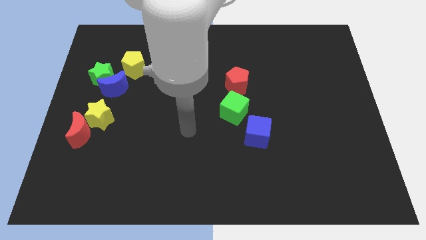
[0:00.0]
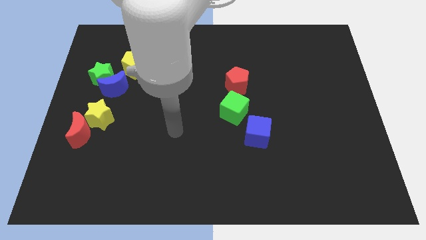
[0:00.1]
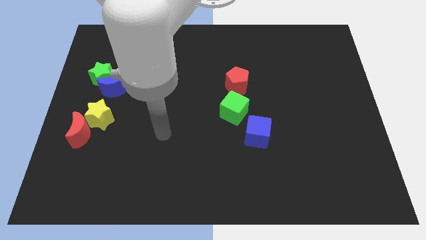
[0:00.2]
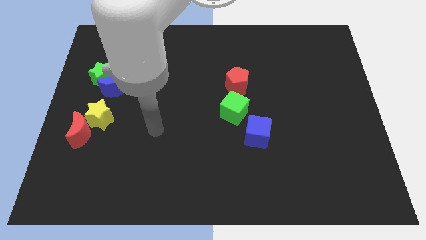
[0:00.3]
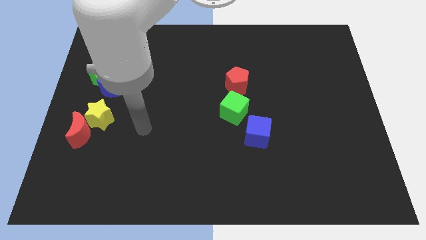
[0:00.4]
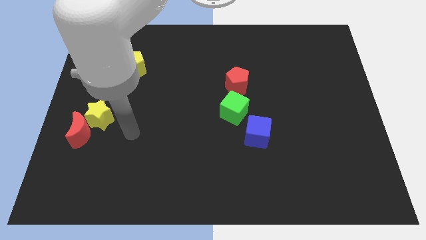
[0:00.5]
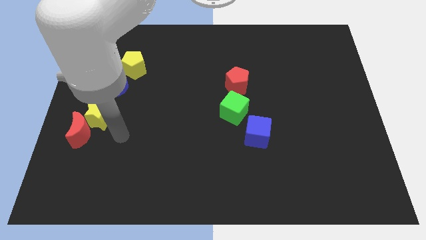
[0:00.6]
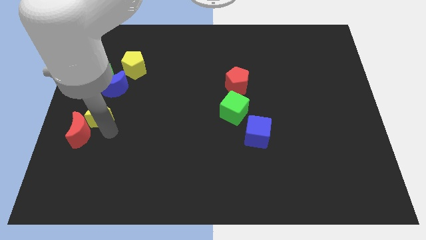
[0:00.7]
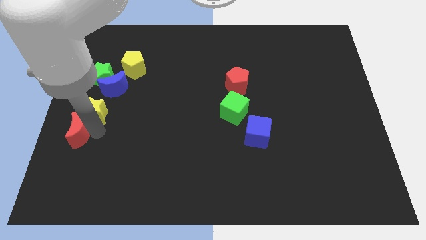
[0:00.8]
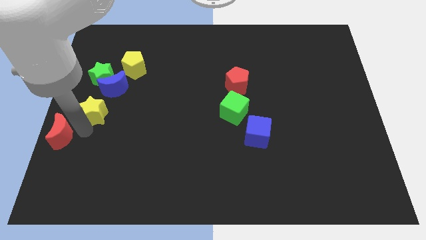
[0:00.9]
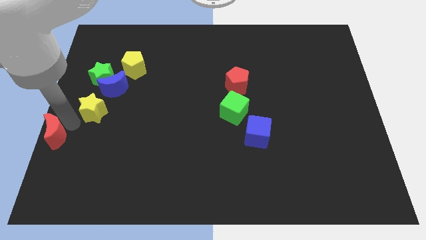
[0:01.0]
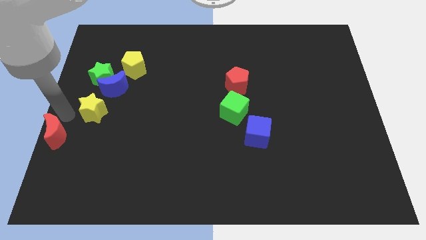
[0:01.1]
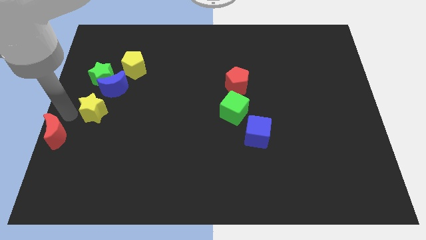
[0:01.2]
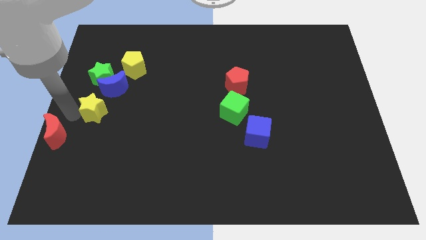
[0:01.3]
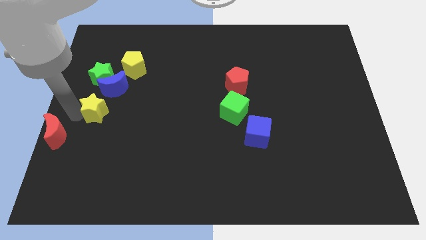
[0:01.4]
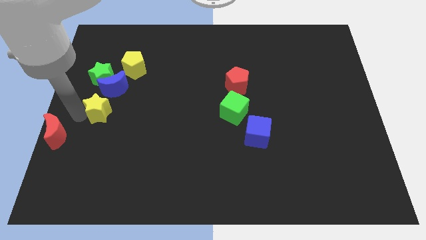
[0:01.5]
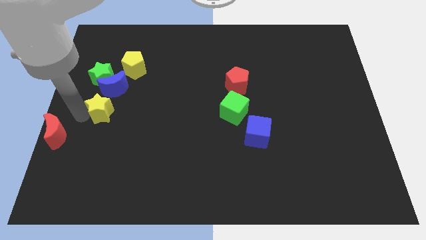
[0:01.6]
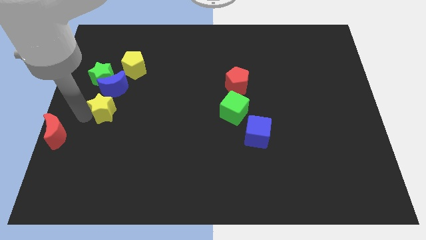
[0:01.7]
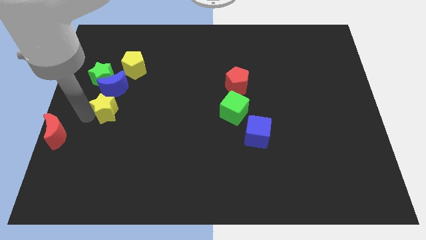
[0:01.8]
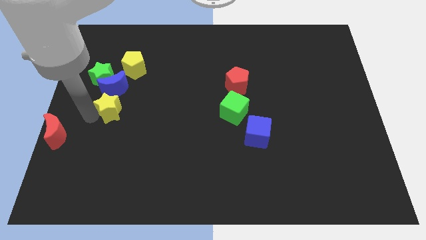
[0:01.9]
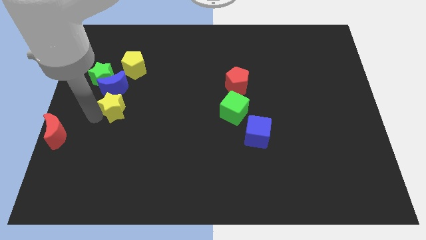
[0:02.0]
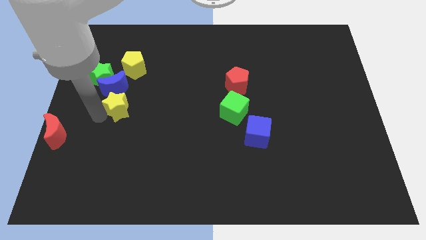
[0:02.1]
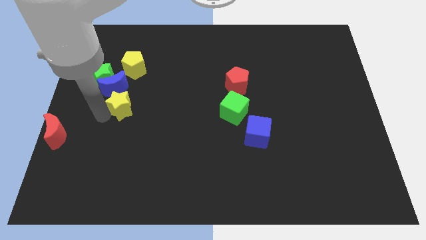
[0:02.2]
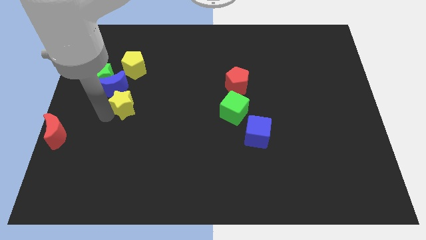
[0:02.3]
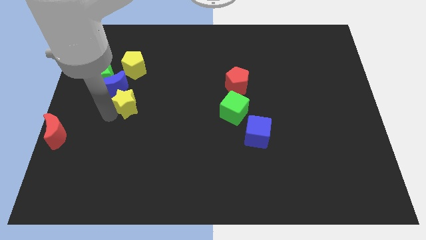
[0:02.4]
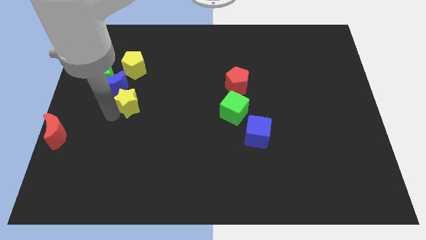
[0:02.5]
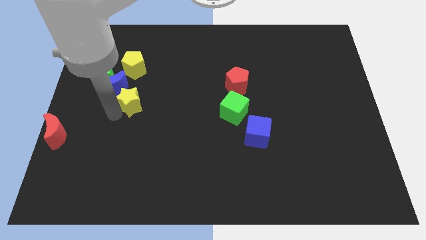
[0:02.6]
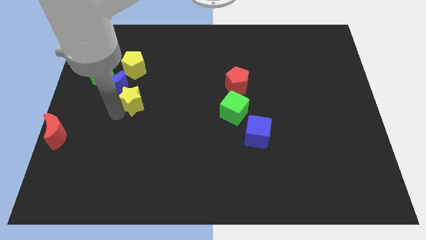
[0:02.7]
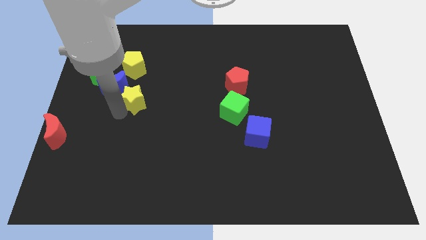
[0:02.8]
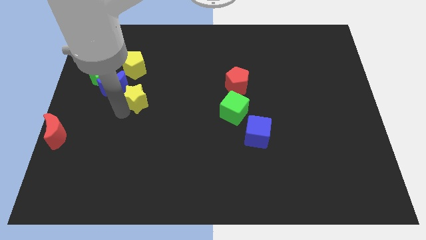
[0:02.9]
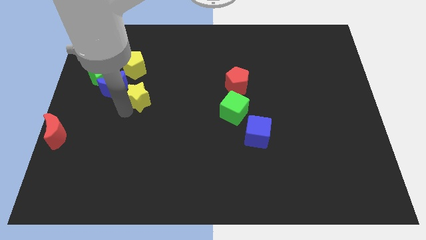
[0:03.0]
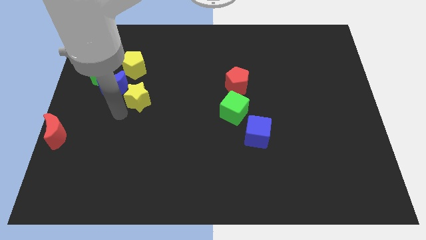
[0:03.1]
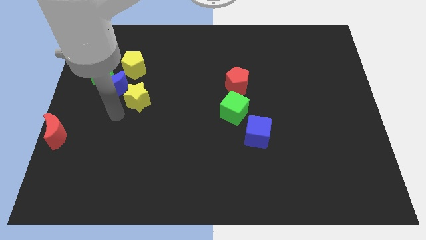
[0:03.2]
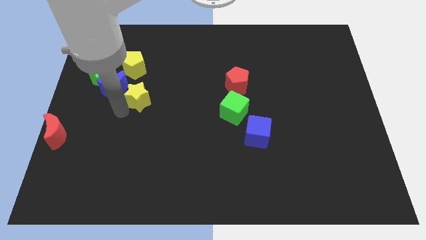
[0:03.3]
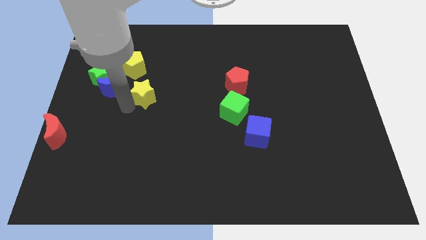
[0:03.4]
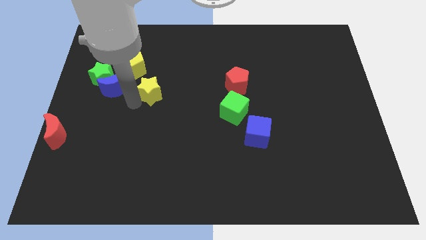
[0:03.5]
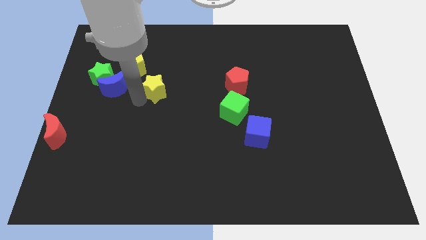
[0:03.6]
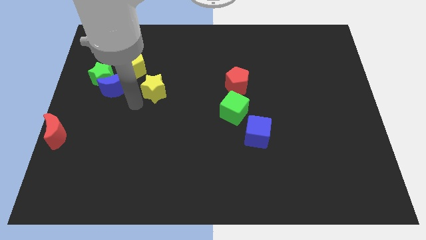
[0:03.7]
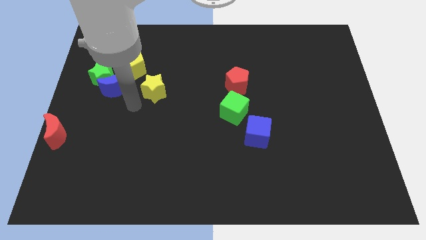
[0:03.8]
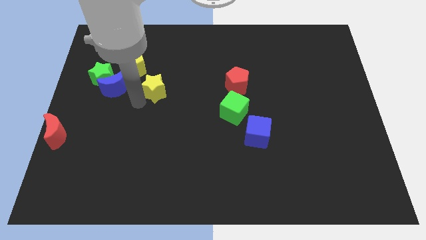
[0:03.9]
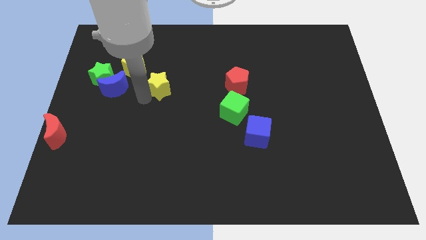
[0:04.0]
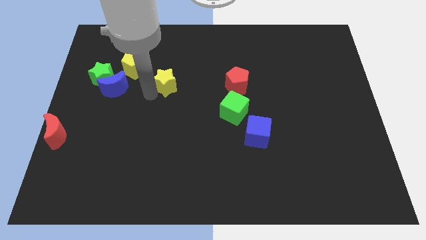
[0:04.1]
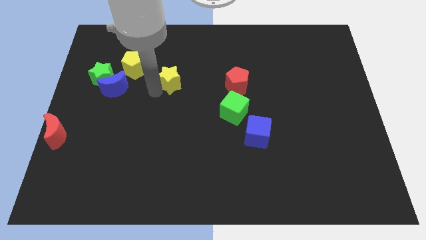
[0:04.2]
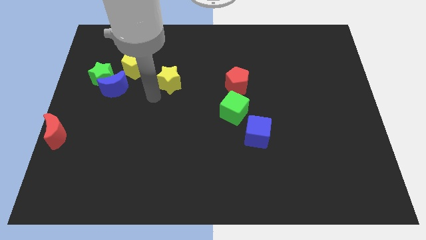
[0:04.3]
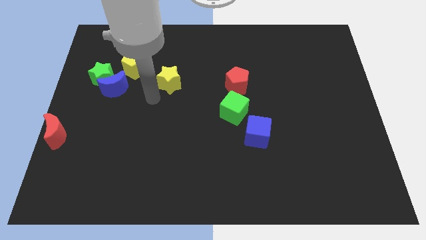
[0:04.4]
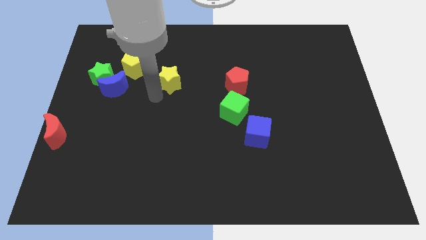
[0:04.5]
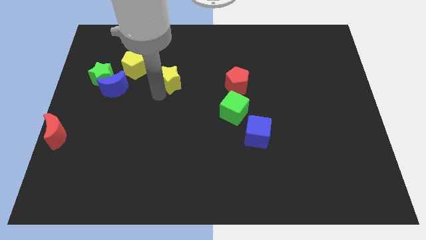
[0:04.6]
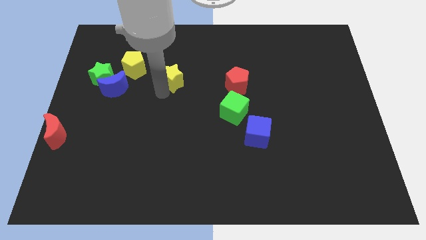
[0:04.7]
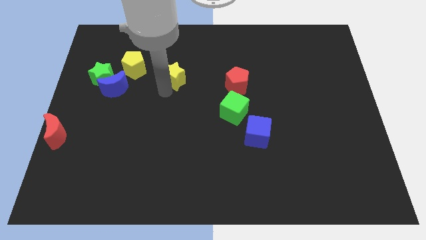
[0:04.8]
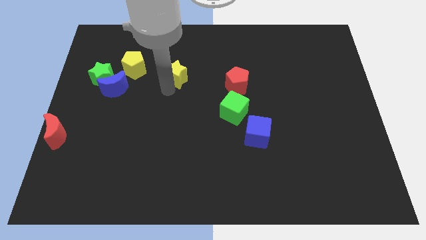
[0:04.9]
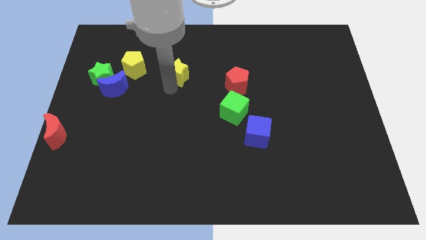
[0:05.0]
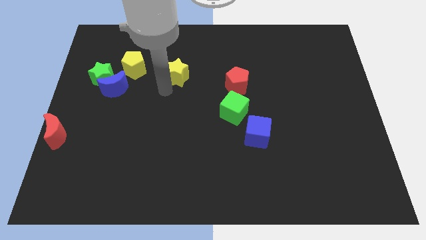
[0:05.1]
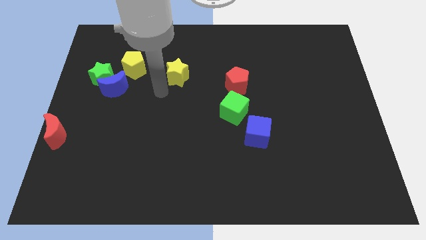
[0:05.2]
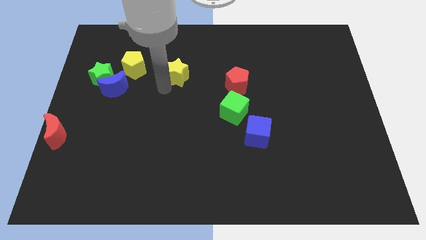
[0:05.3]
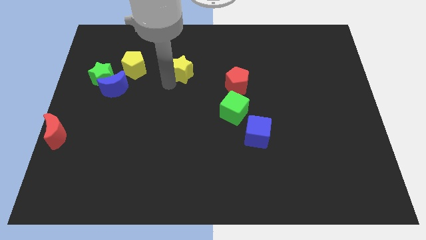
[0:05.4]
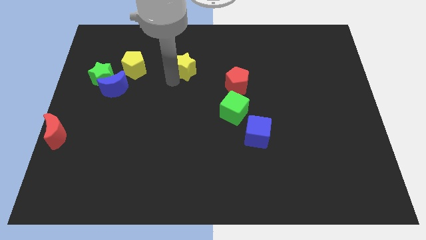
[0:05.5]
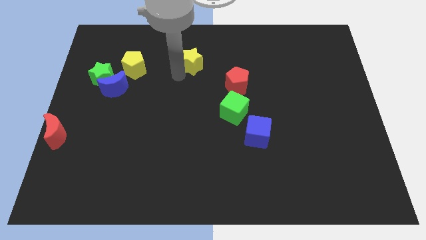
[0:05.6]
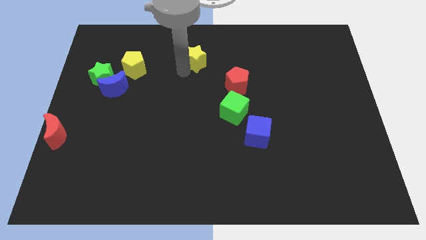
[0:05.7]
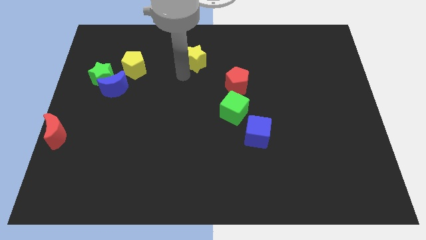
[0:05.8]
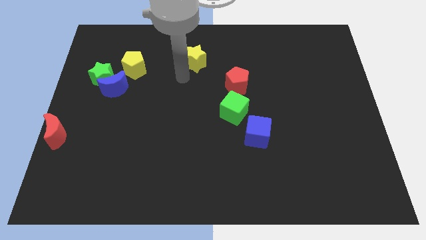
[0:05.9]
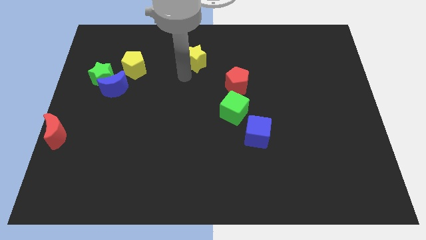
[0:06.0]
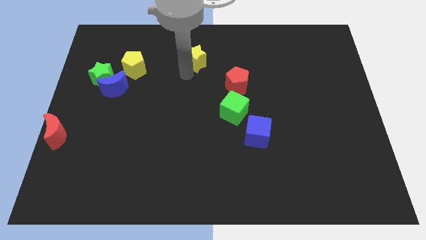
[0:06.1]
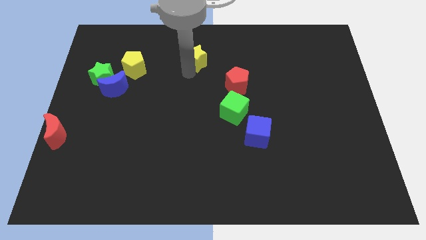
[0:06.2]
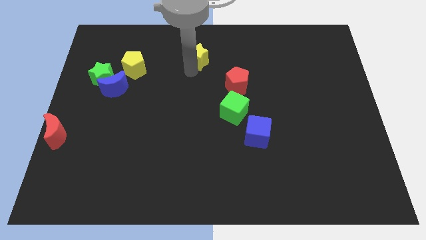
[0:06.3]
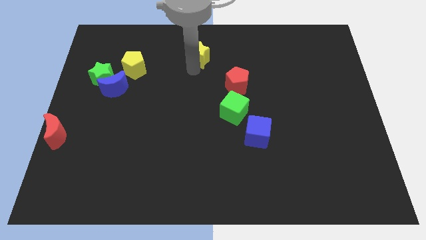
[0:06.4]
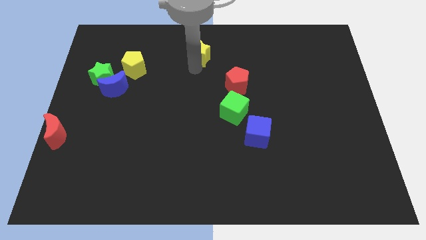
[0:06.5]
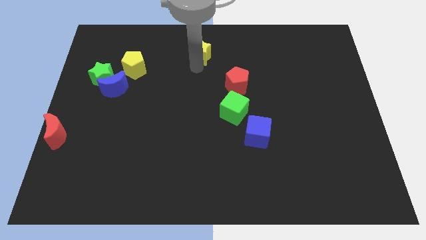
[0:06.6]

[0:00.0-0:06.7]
slide the yellow star to the towards your base
